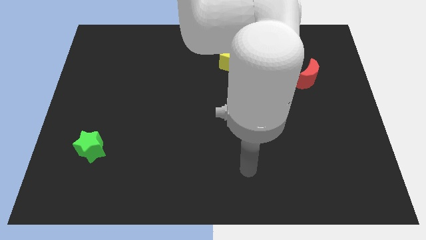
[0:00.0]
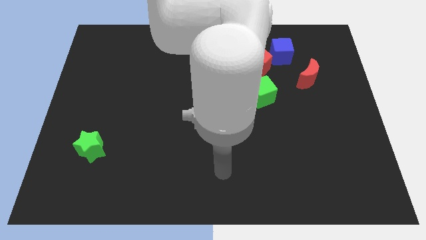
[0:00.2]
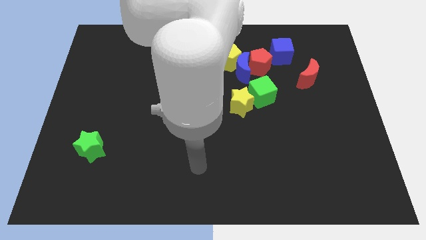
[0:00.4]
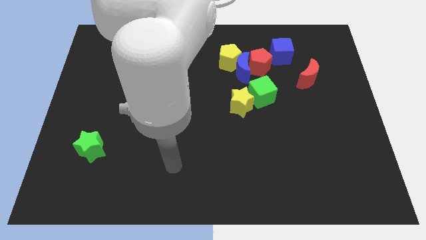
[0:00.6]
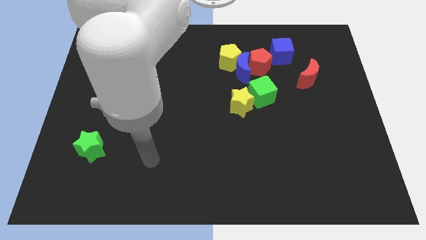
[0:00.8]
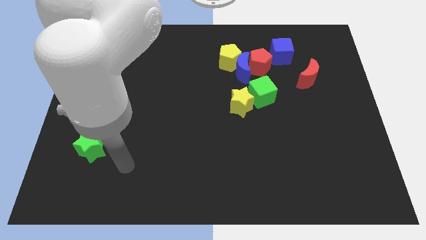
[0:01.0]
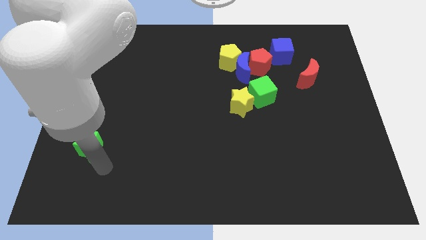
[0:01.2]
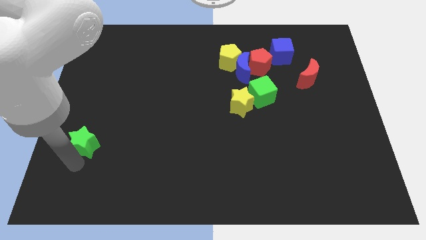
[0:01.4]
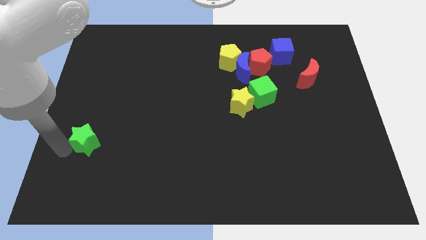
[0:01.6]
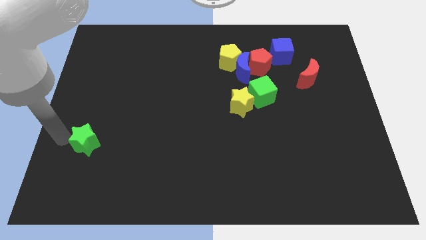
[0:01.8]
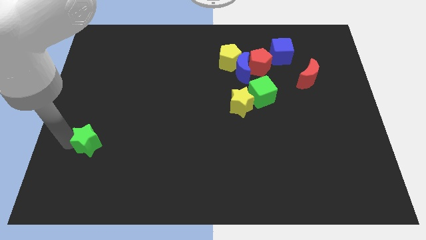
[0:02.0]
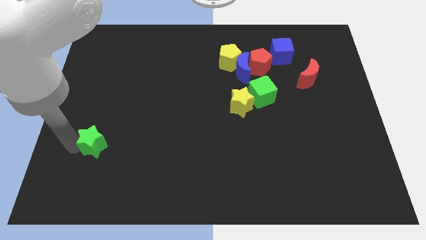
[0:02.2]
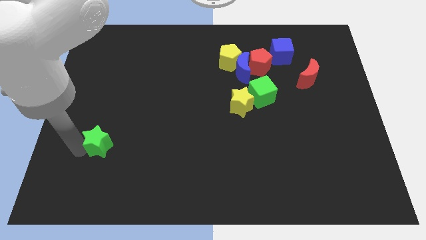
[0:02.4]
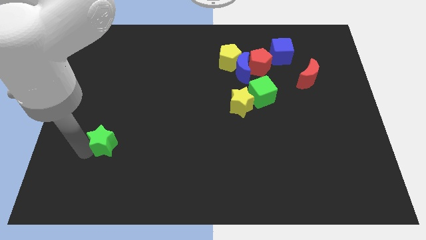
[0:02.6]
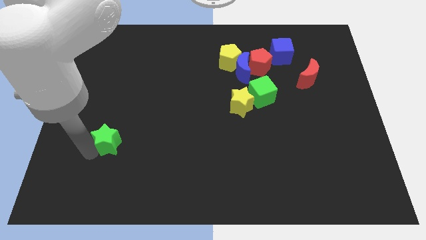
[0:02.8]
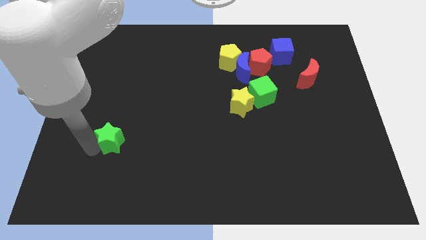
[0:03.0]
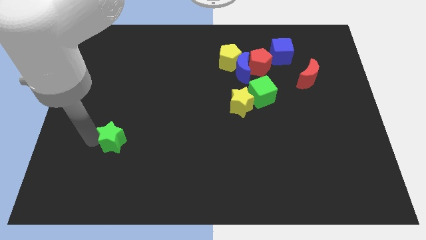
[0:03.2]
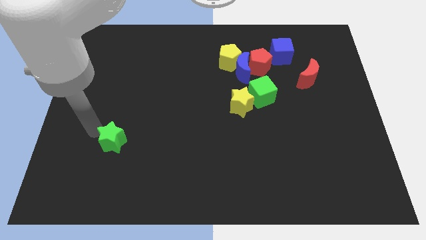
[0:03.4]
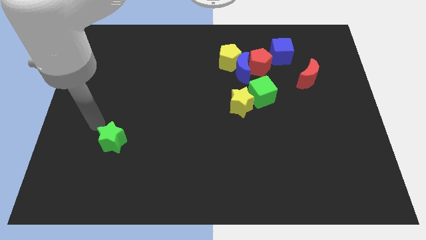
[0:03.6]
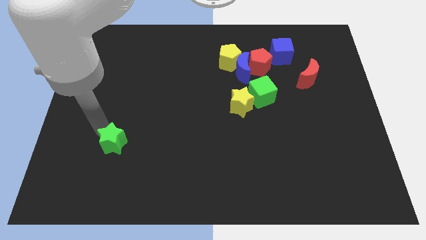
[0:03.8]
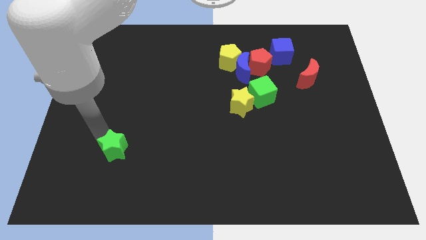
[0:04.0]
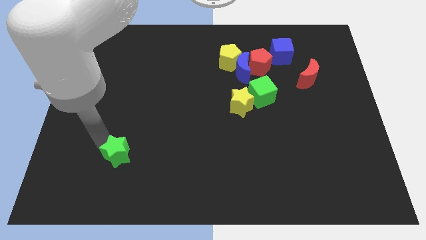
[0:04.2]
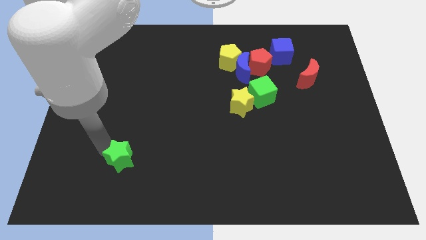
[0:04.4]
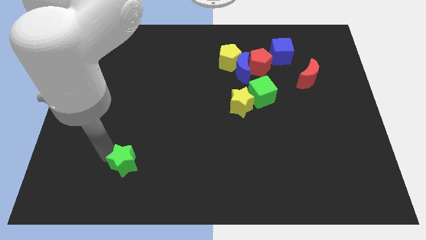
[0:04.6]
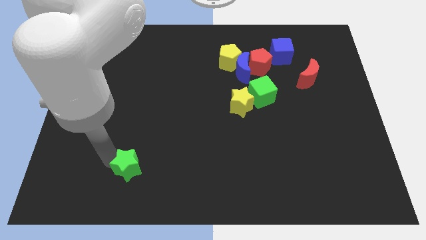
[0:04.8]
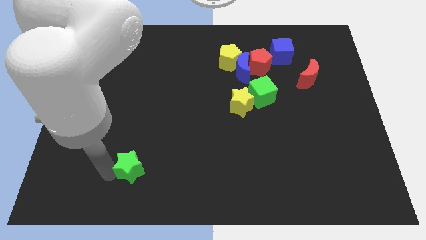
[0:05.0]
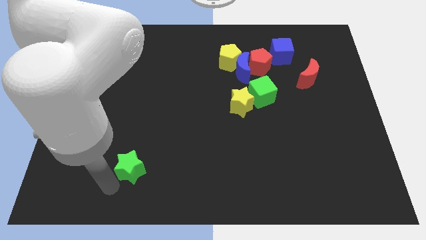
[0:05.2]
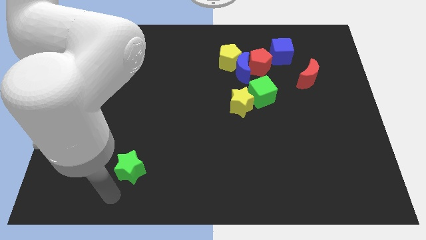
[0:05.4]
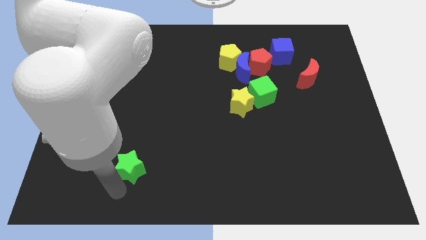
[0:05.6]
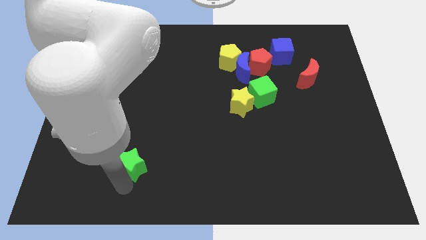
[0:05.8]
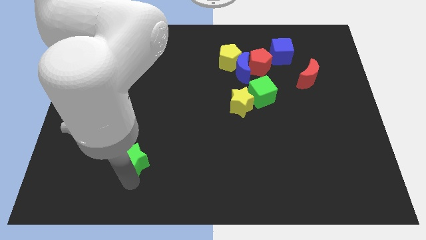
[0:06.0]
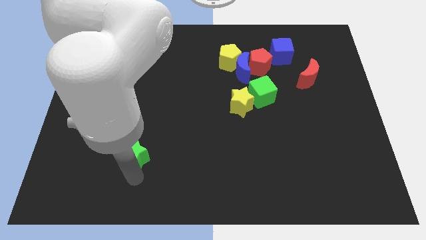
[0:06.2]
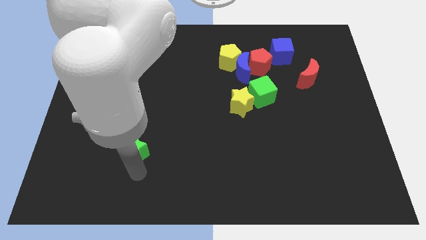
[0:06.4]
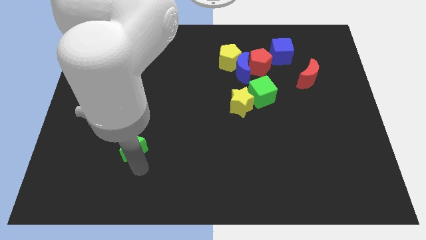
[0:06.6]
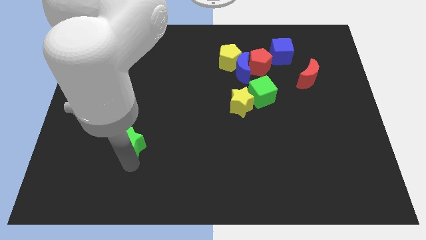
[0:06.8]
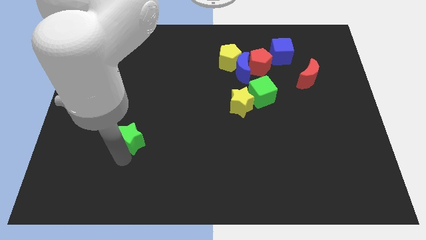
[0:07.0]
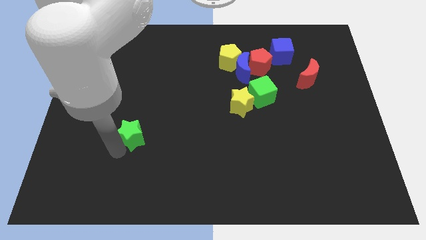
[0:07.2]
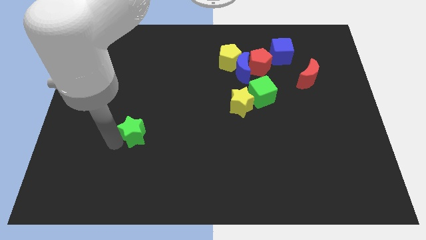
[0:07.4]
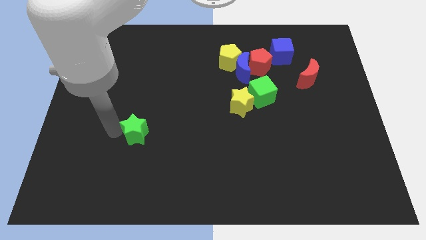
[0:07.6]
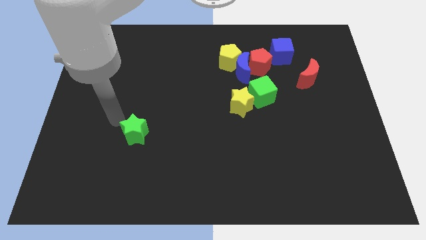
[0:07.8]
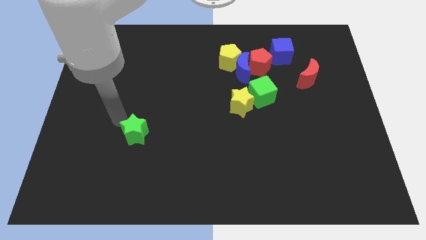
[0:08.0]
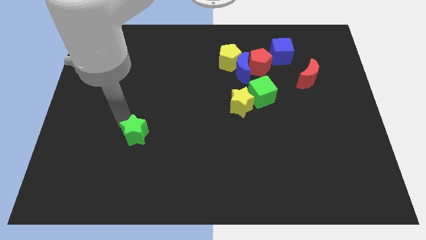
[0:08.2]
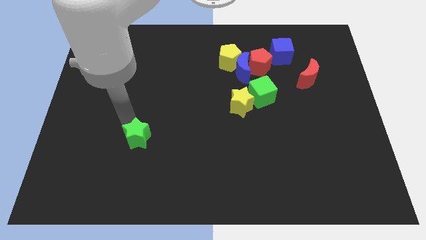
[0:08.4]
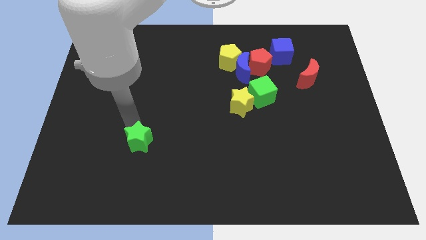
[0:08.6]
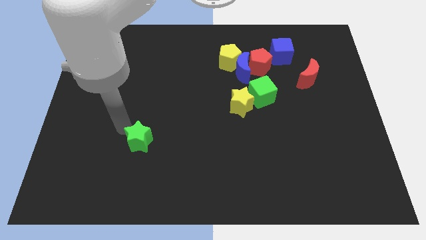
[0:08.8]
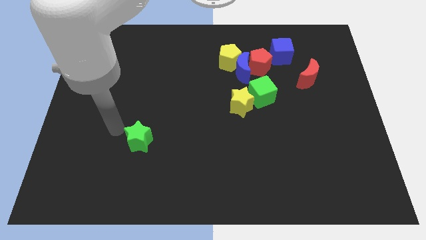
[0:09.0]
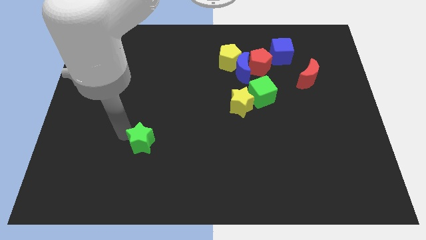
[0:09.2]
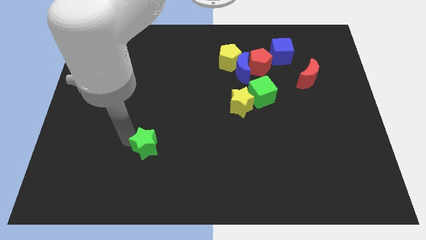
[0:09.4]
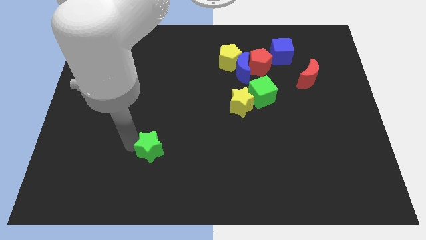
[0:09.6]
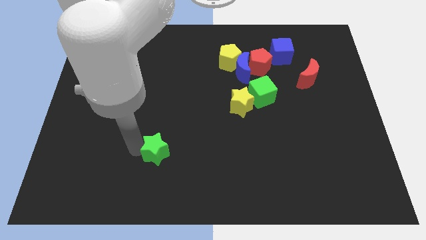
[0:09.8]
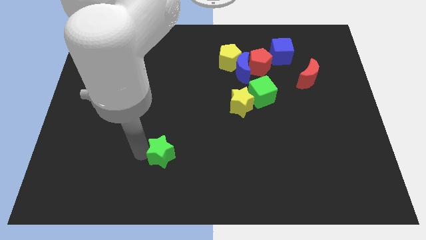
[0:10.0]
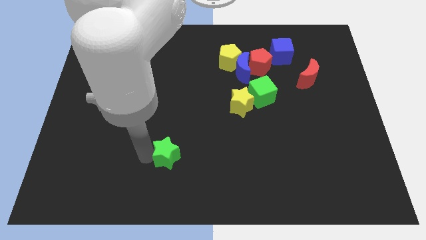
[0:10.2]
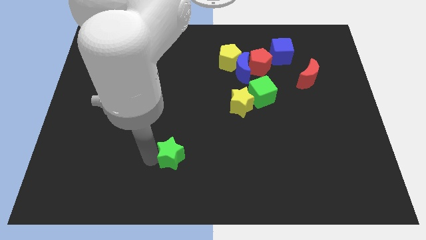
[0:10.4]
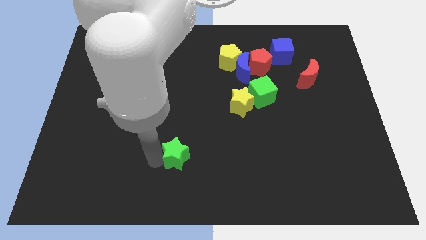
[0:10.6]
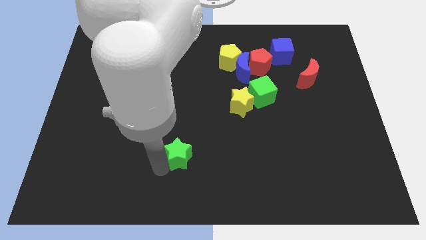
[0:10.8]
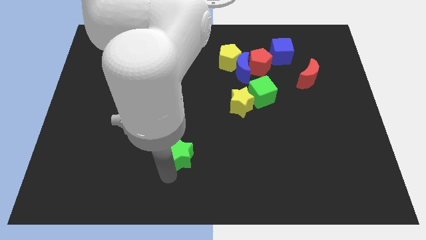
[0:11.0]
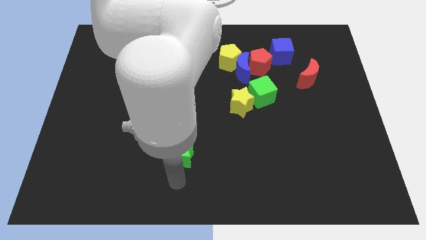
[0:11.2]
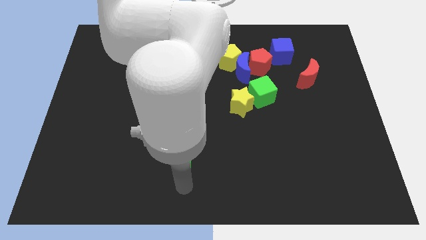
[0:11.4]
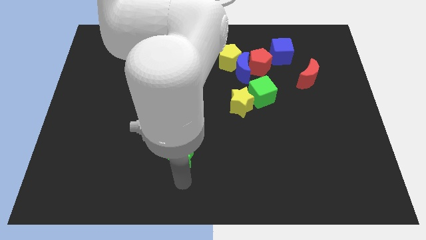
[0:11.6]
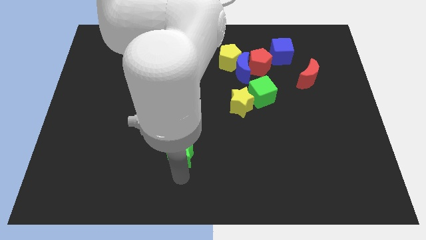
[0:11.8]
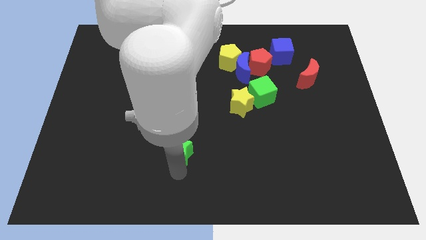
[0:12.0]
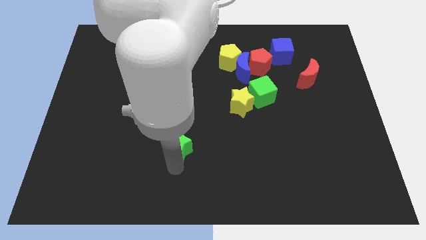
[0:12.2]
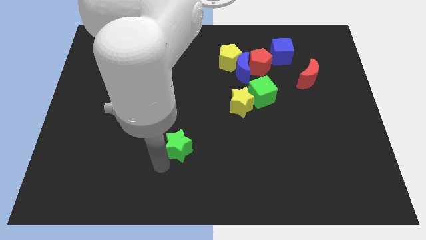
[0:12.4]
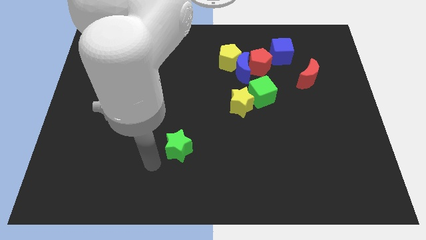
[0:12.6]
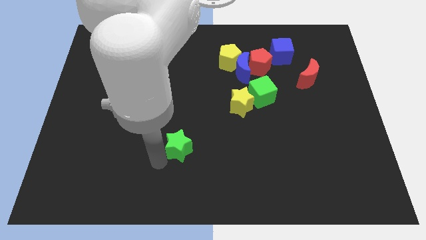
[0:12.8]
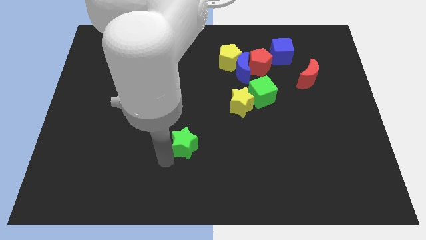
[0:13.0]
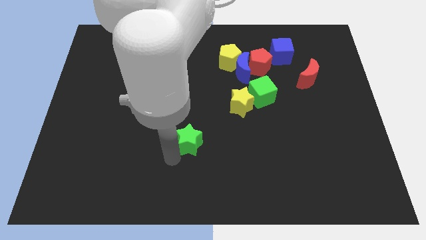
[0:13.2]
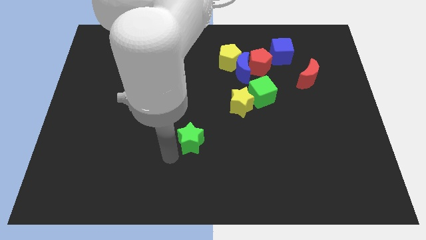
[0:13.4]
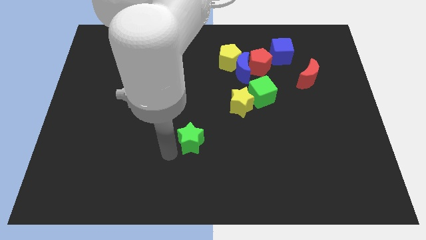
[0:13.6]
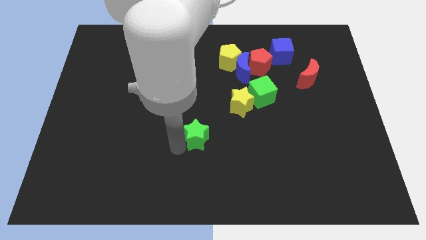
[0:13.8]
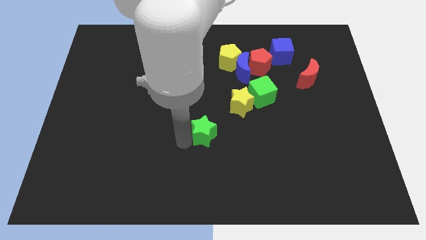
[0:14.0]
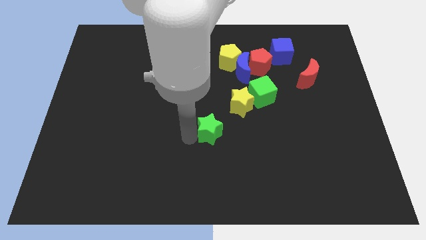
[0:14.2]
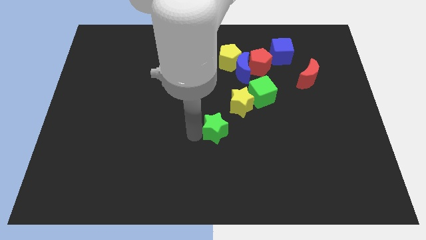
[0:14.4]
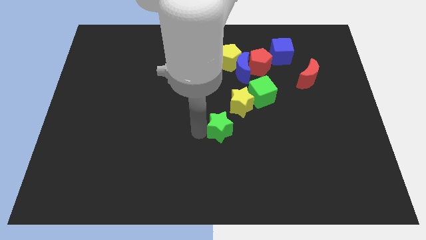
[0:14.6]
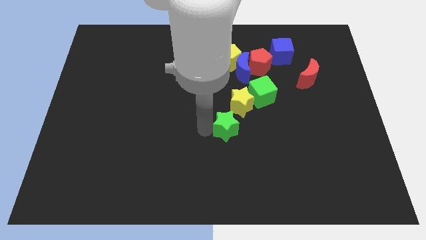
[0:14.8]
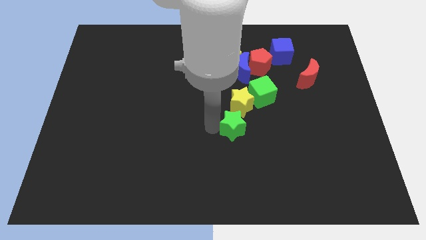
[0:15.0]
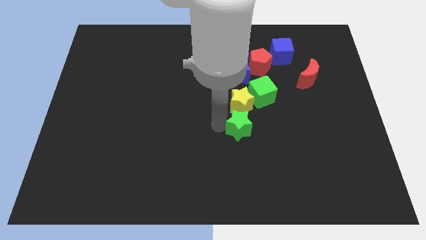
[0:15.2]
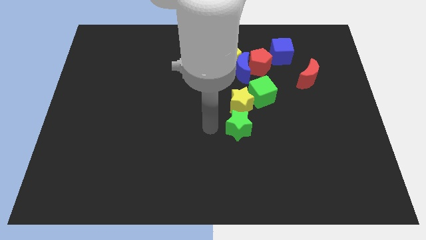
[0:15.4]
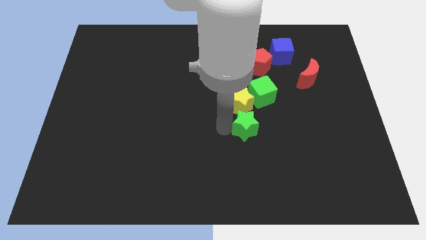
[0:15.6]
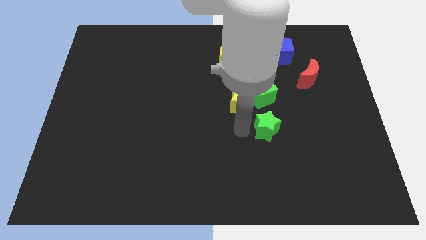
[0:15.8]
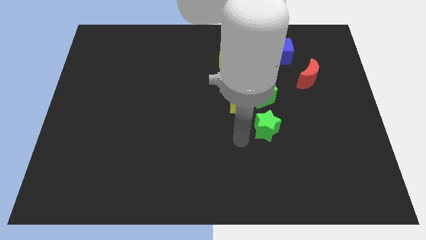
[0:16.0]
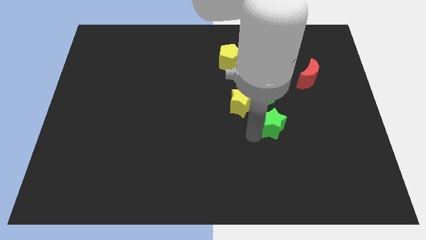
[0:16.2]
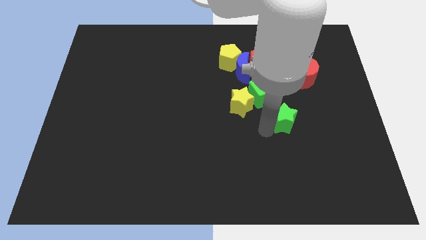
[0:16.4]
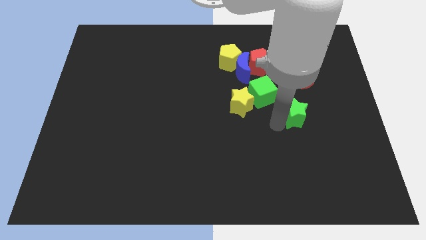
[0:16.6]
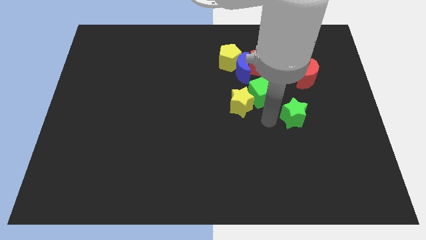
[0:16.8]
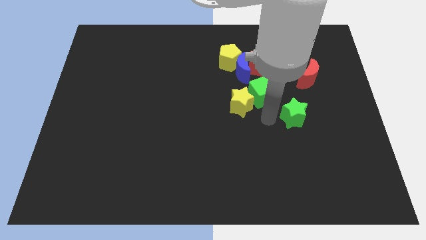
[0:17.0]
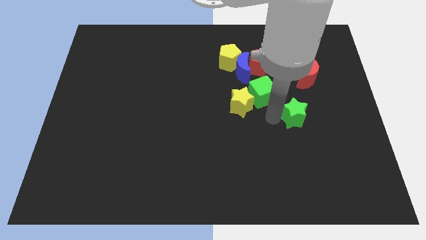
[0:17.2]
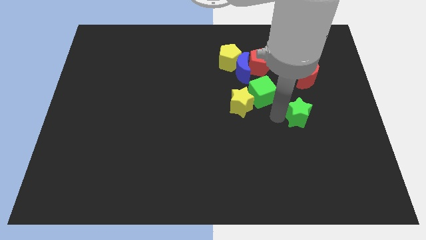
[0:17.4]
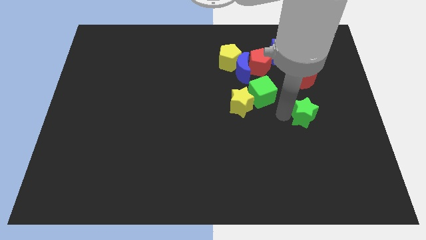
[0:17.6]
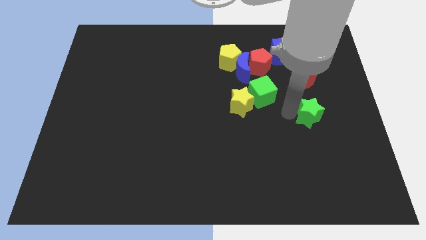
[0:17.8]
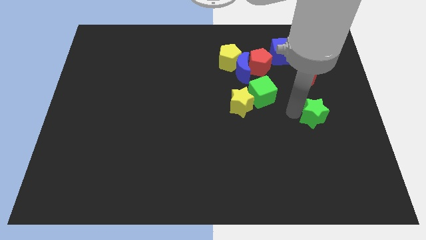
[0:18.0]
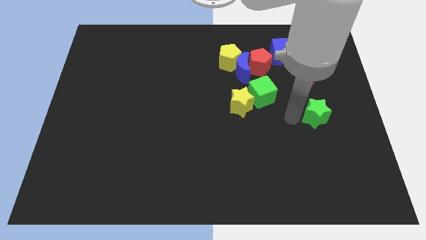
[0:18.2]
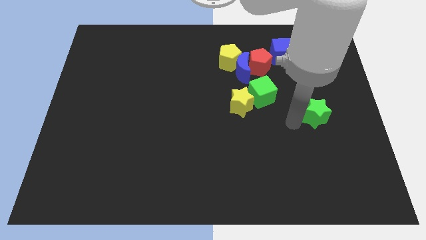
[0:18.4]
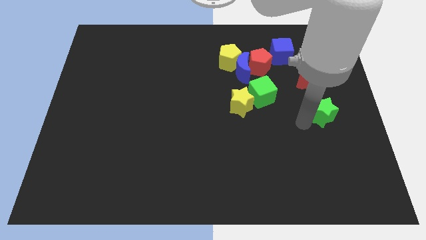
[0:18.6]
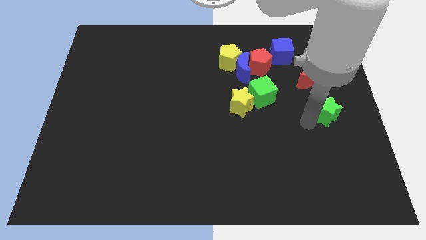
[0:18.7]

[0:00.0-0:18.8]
slide the green star to the right side
